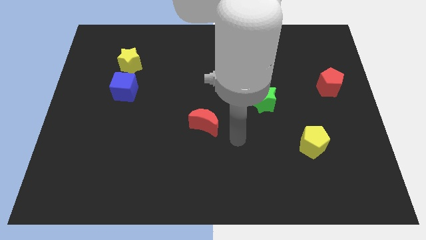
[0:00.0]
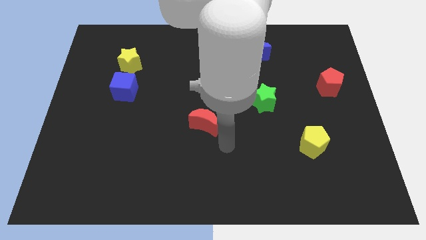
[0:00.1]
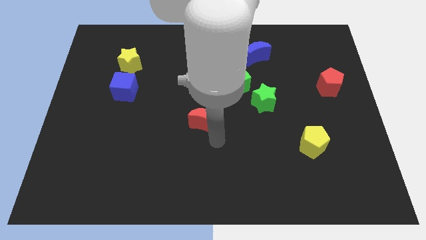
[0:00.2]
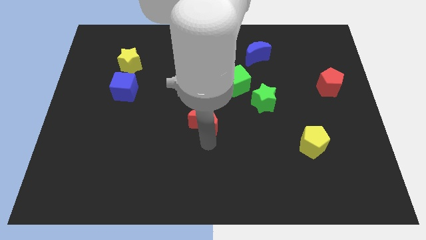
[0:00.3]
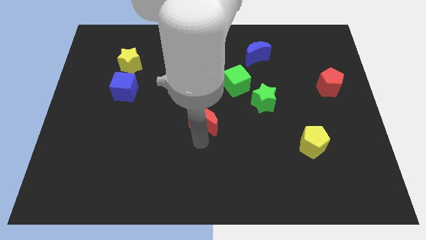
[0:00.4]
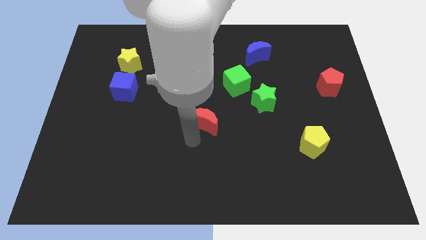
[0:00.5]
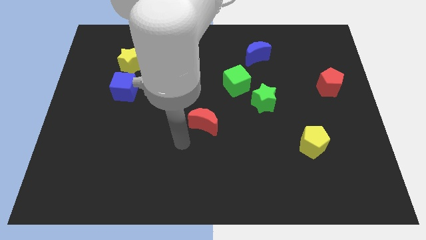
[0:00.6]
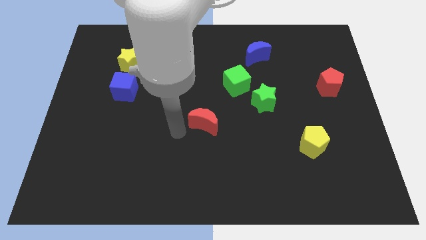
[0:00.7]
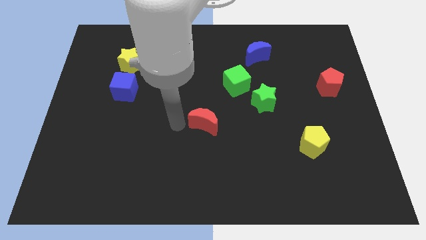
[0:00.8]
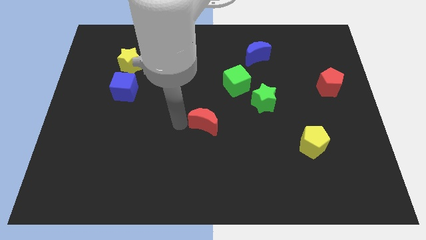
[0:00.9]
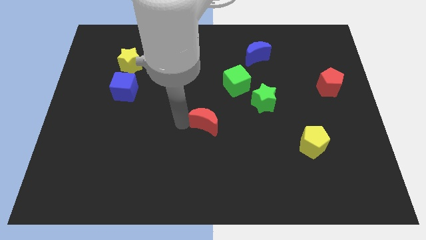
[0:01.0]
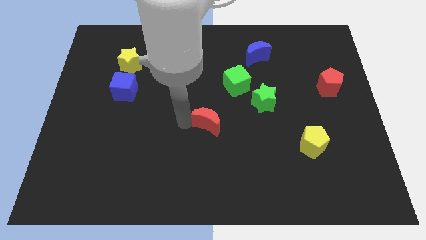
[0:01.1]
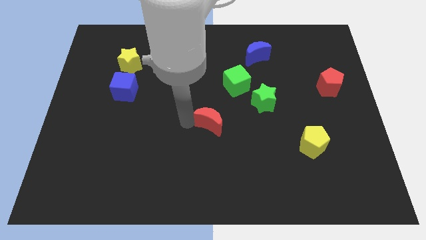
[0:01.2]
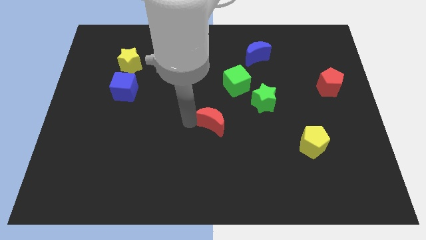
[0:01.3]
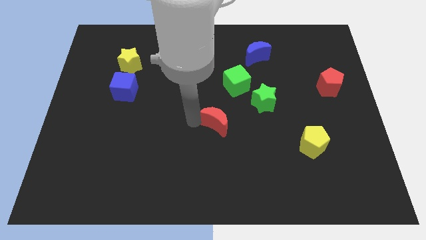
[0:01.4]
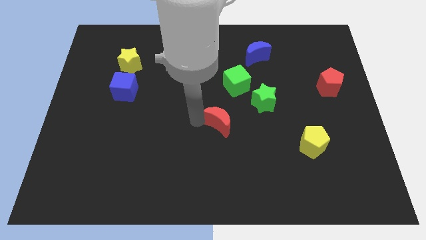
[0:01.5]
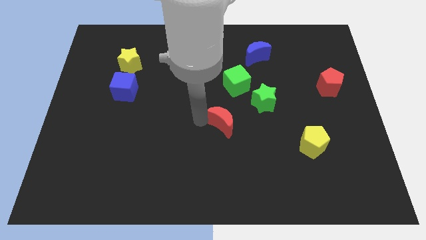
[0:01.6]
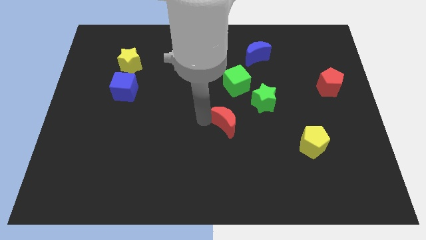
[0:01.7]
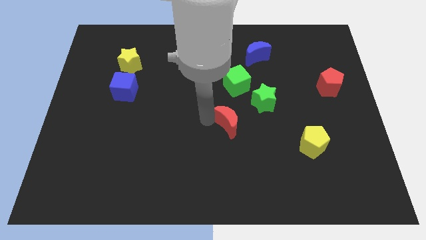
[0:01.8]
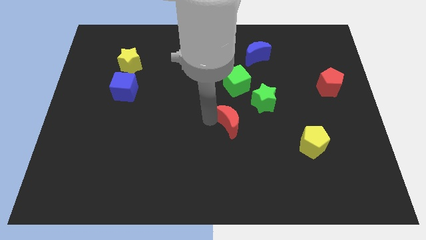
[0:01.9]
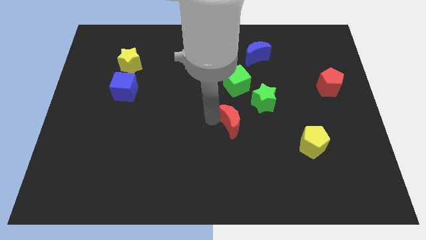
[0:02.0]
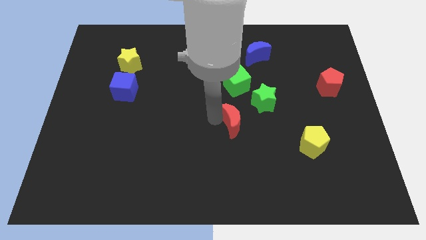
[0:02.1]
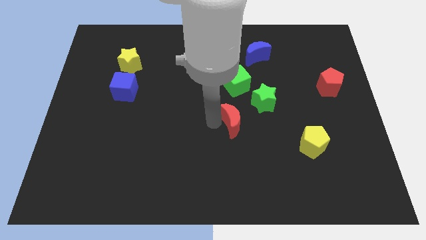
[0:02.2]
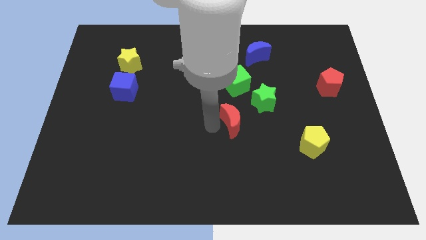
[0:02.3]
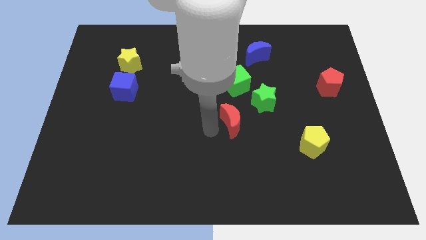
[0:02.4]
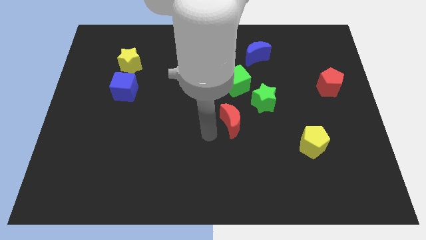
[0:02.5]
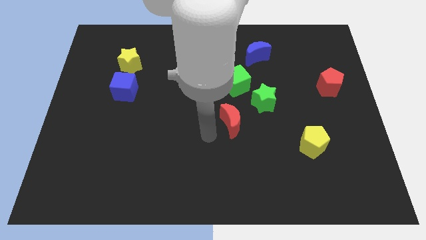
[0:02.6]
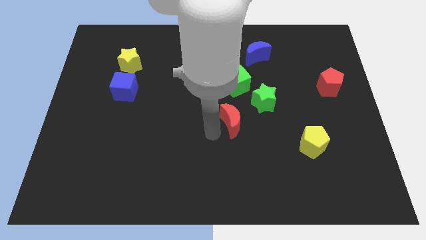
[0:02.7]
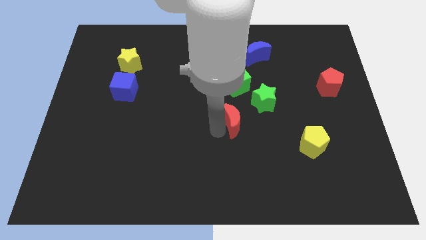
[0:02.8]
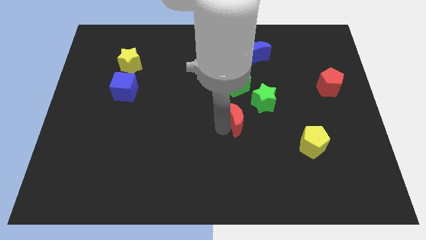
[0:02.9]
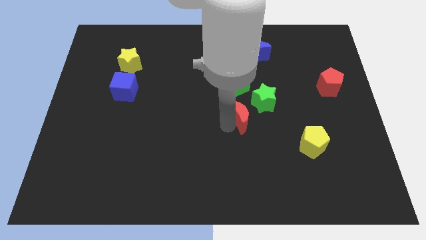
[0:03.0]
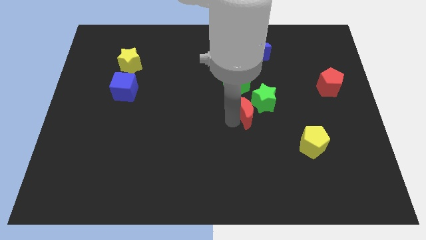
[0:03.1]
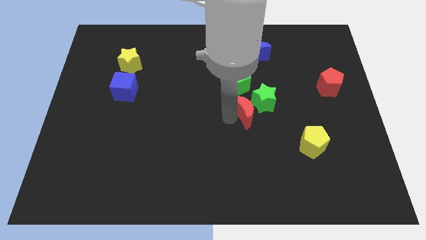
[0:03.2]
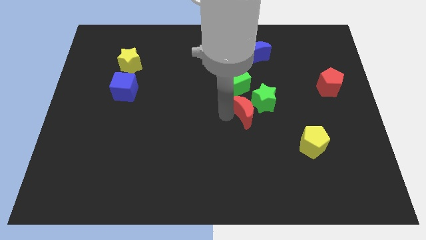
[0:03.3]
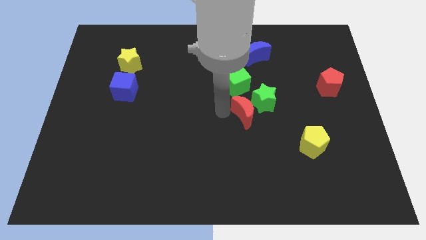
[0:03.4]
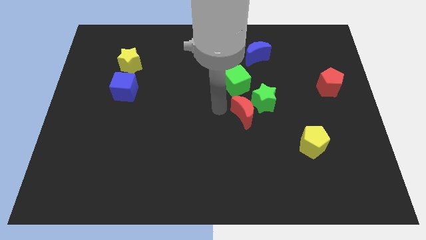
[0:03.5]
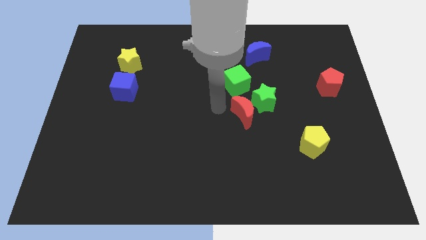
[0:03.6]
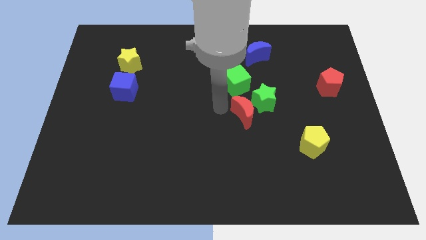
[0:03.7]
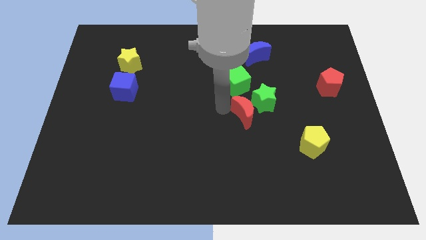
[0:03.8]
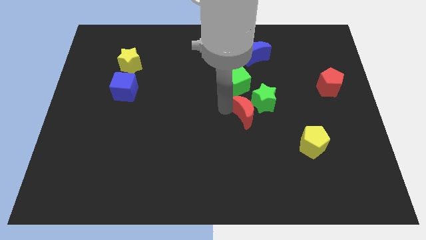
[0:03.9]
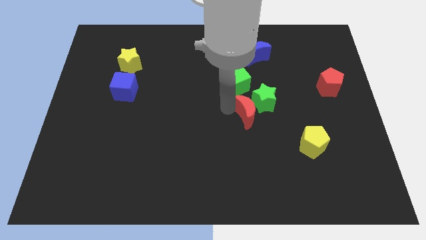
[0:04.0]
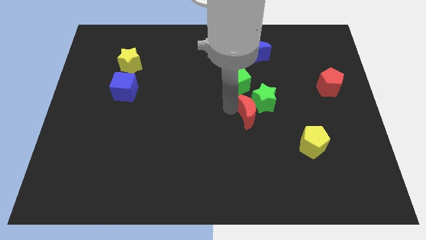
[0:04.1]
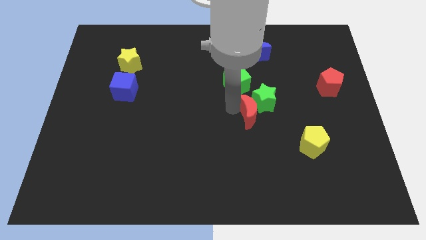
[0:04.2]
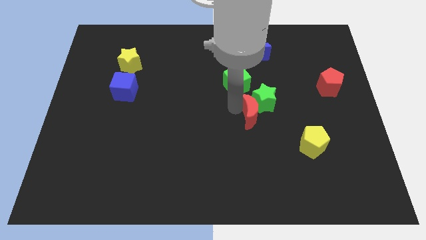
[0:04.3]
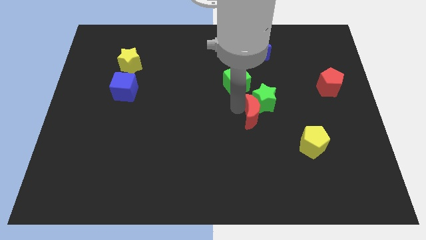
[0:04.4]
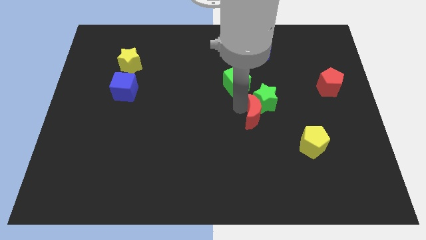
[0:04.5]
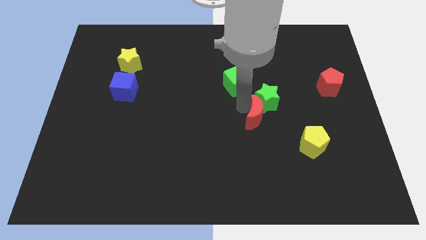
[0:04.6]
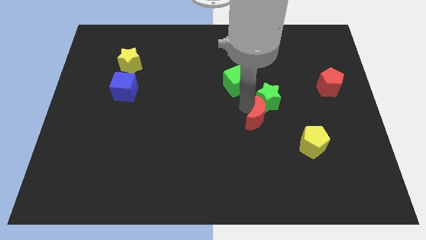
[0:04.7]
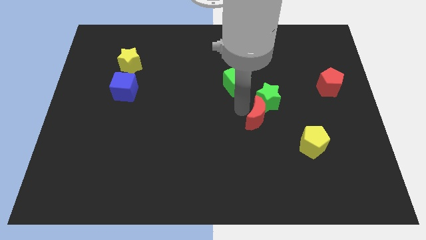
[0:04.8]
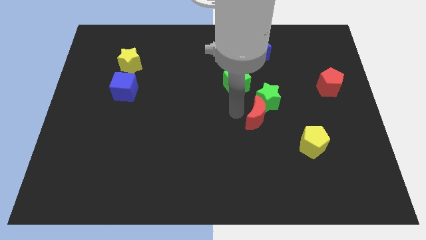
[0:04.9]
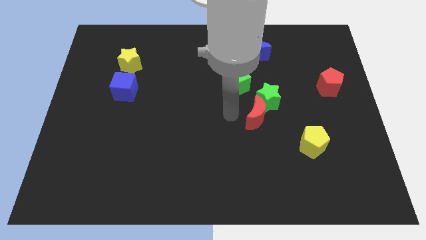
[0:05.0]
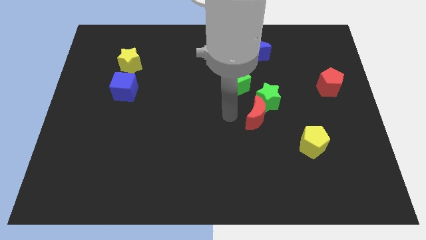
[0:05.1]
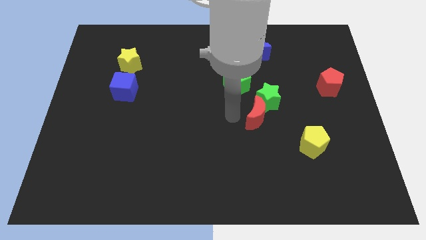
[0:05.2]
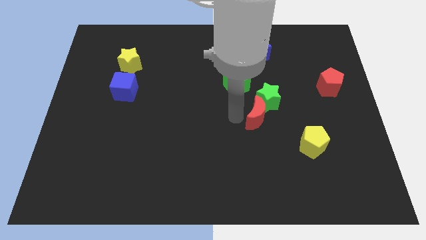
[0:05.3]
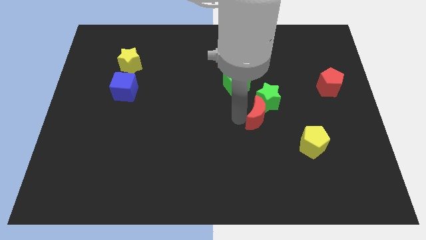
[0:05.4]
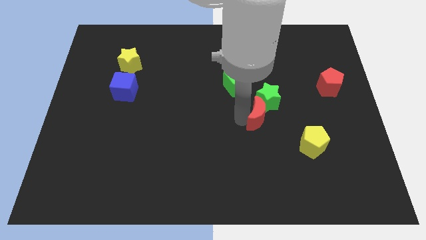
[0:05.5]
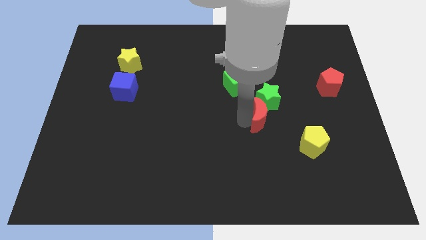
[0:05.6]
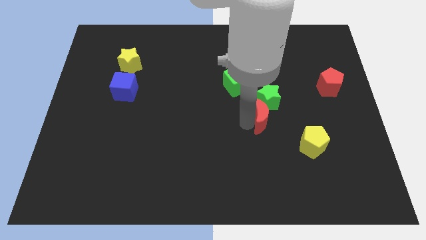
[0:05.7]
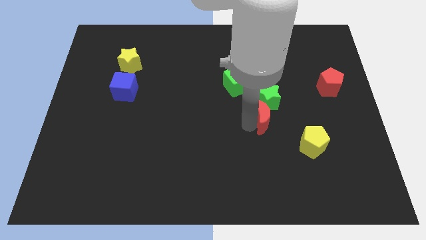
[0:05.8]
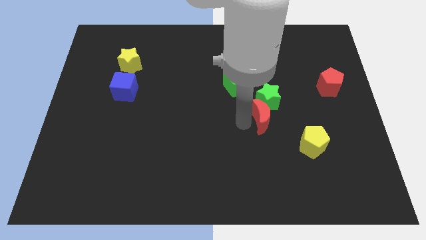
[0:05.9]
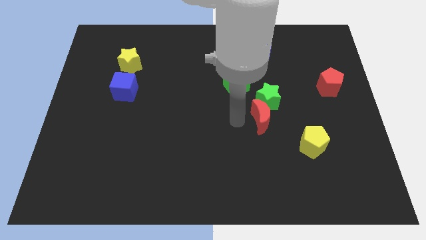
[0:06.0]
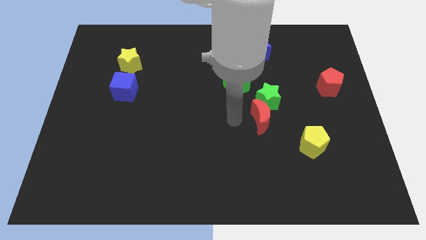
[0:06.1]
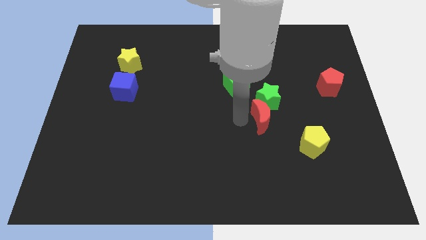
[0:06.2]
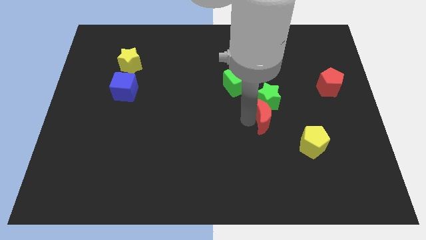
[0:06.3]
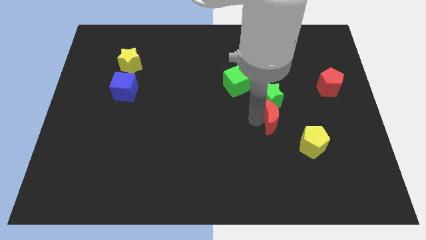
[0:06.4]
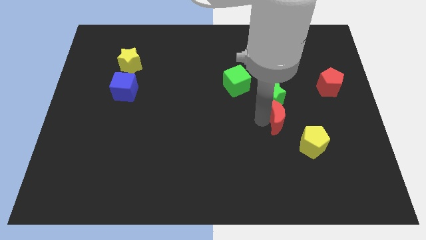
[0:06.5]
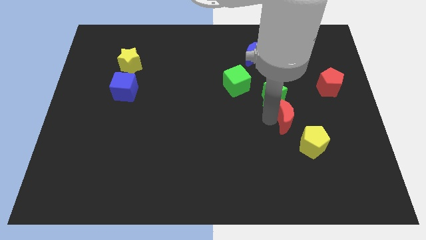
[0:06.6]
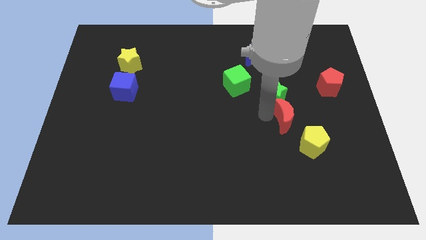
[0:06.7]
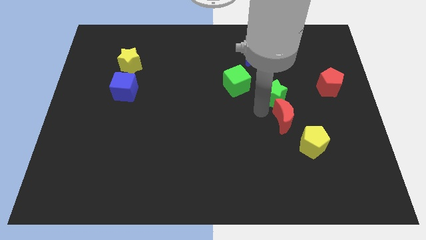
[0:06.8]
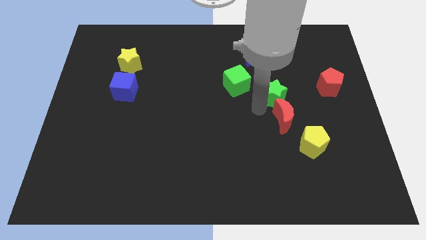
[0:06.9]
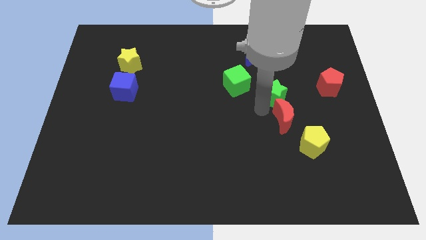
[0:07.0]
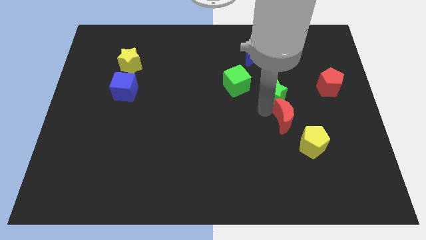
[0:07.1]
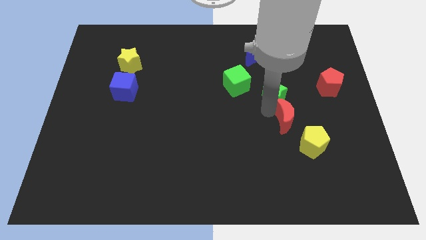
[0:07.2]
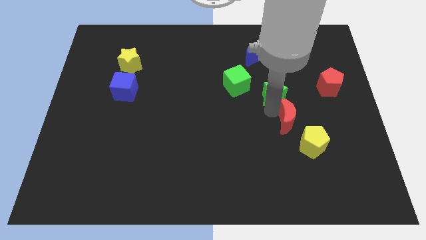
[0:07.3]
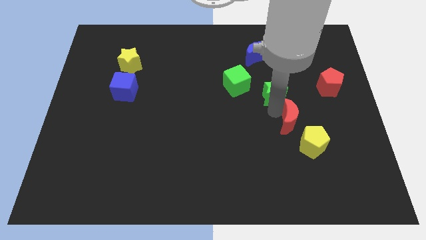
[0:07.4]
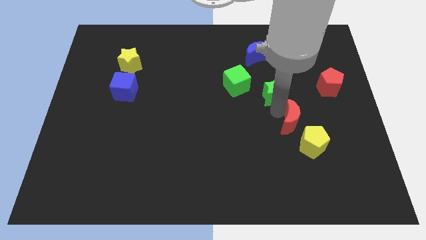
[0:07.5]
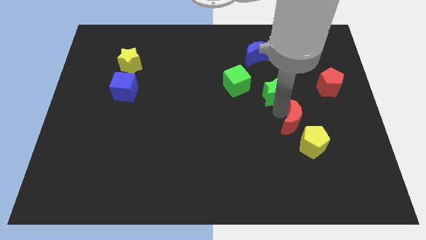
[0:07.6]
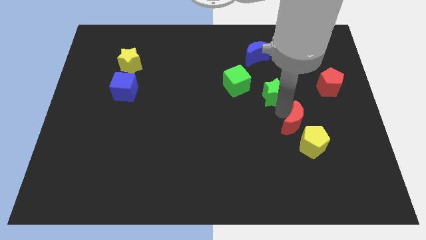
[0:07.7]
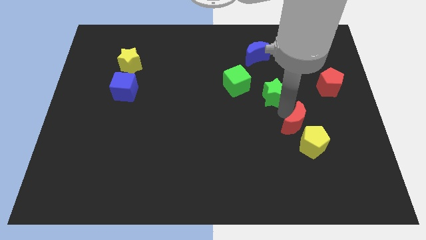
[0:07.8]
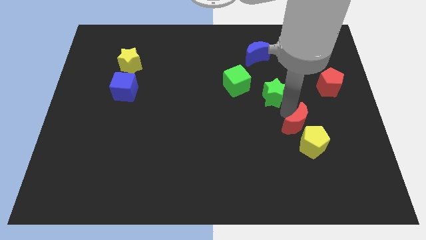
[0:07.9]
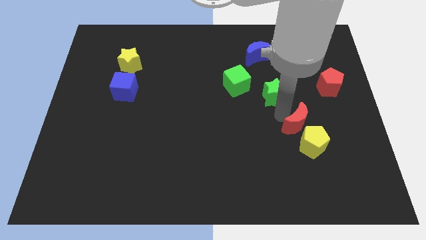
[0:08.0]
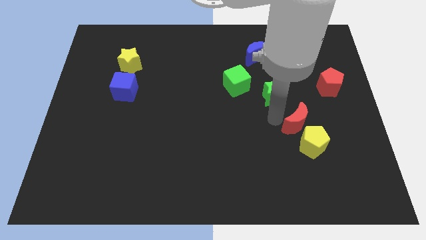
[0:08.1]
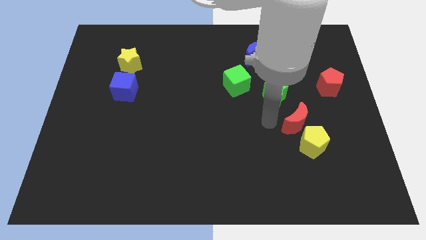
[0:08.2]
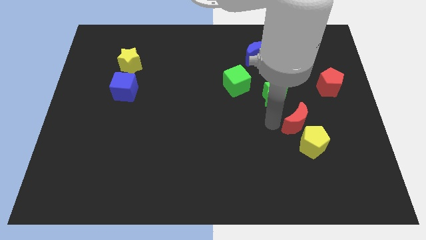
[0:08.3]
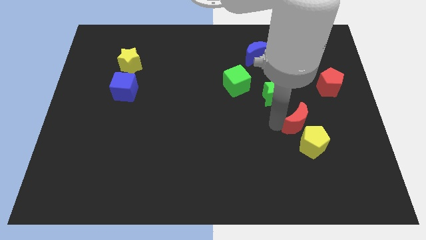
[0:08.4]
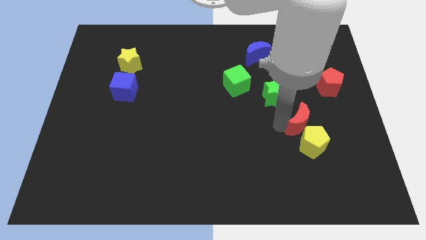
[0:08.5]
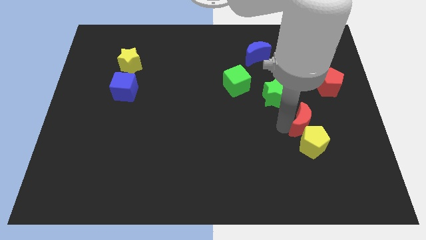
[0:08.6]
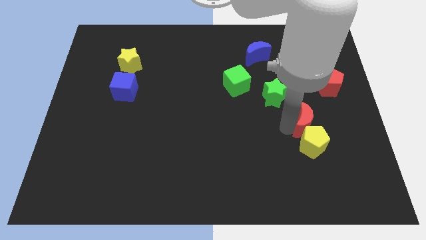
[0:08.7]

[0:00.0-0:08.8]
push the red moon to the top right side of the yellow pentagon
